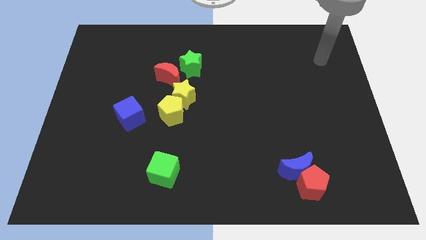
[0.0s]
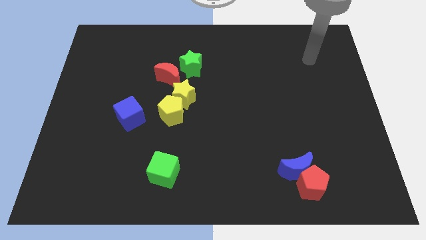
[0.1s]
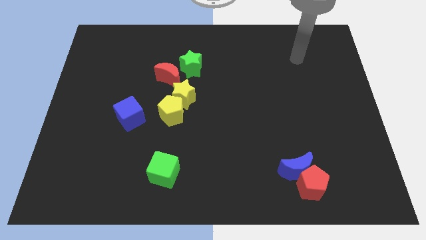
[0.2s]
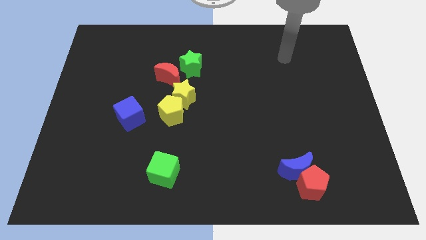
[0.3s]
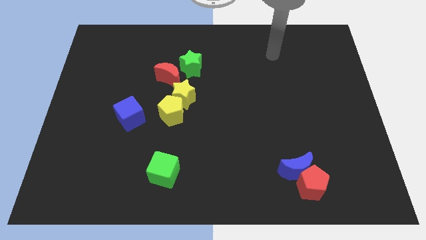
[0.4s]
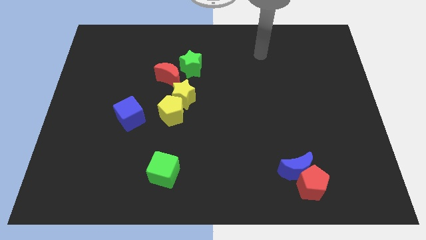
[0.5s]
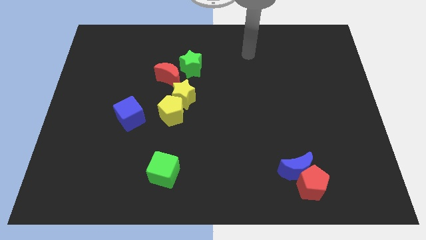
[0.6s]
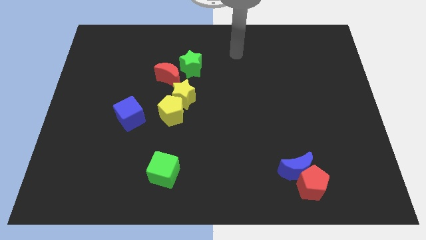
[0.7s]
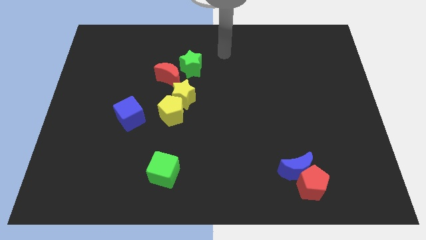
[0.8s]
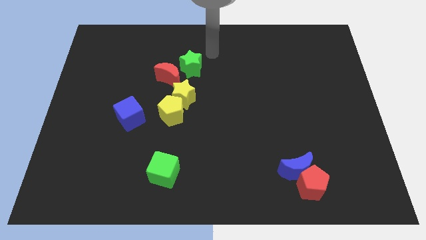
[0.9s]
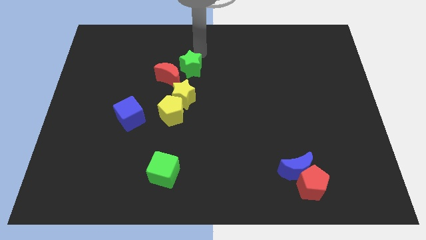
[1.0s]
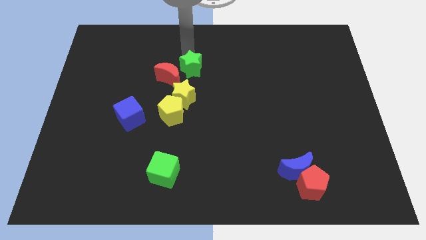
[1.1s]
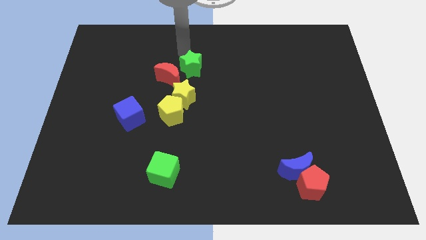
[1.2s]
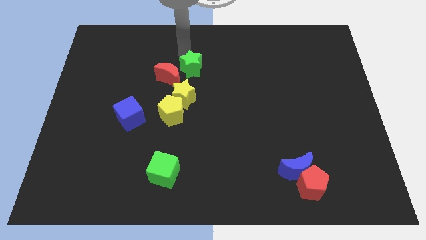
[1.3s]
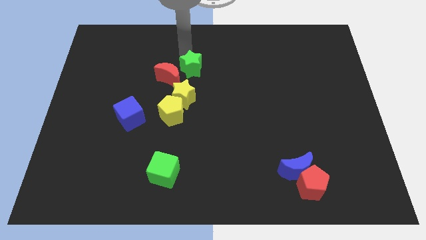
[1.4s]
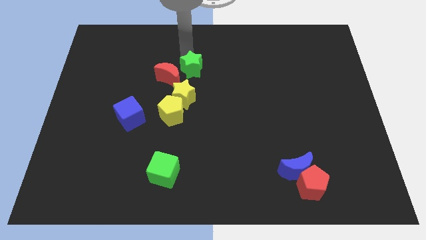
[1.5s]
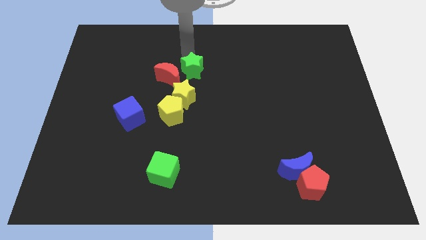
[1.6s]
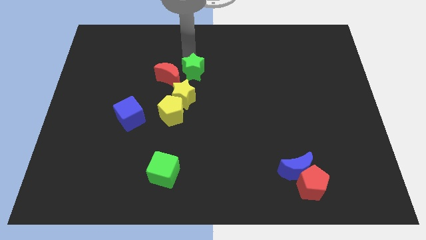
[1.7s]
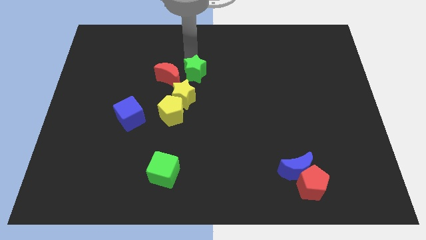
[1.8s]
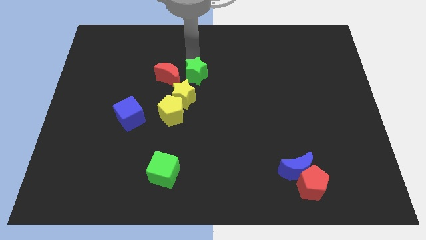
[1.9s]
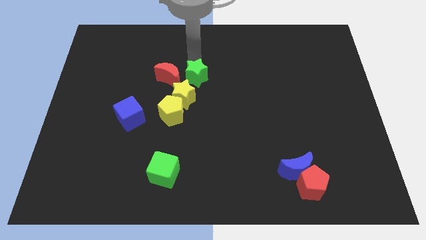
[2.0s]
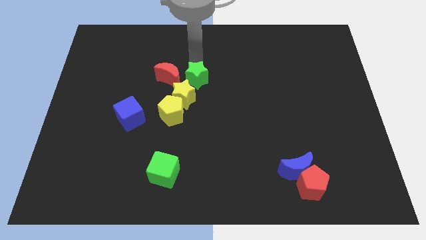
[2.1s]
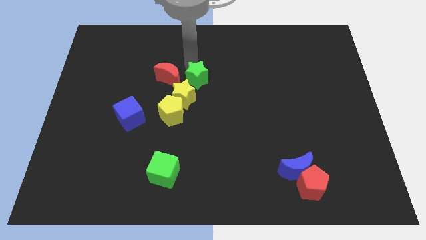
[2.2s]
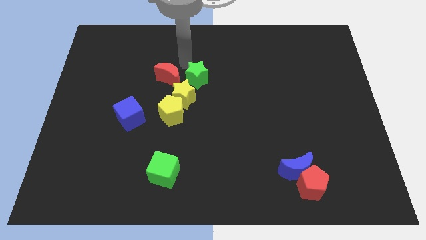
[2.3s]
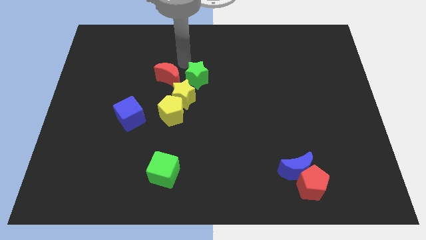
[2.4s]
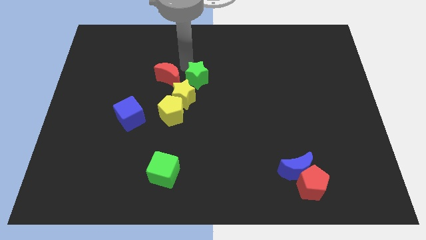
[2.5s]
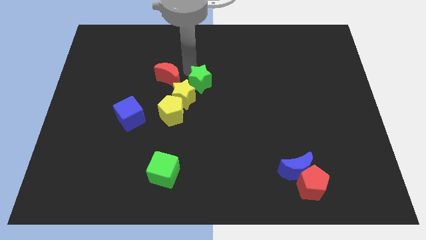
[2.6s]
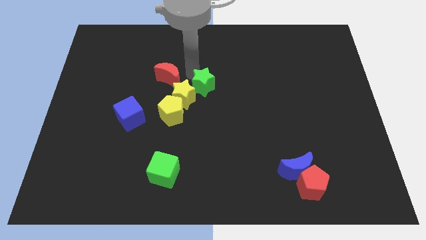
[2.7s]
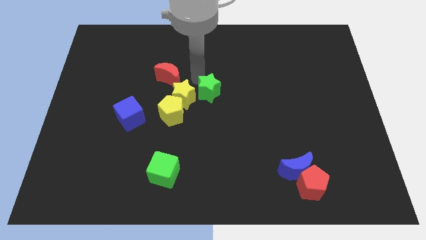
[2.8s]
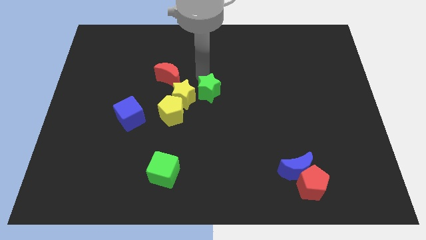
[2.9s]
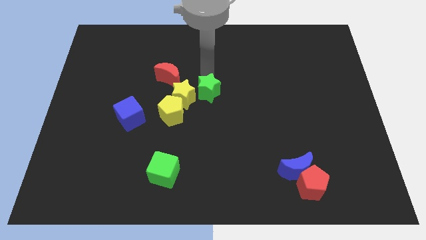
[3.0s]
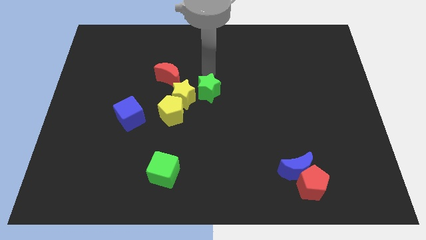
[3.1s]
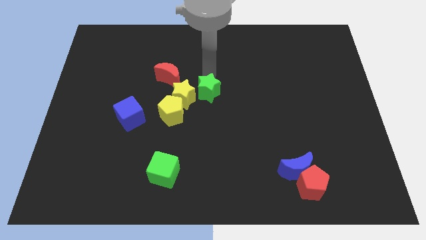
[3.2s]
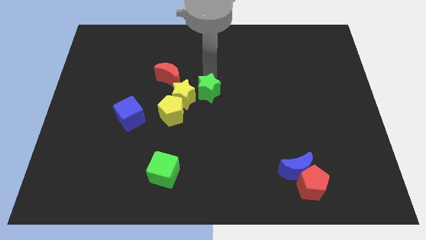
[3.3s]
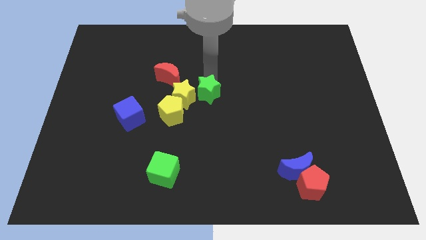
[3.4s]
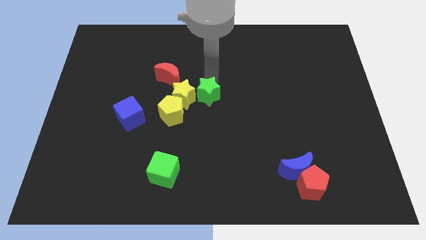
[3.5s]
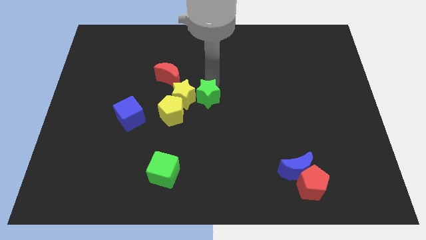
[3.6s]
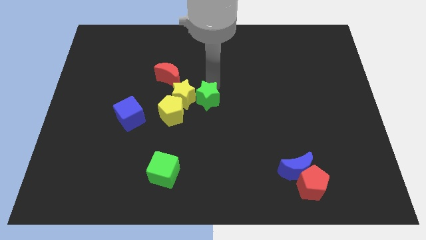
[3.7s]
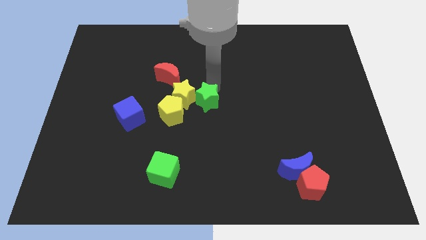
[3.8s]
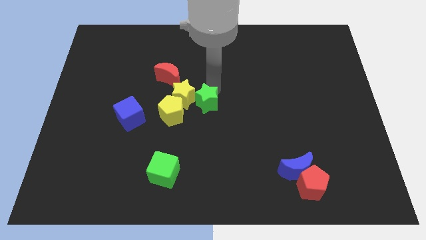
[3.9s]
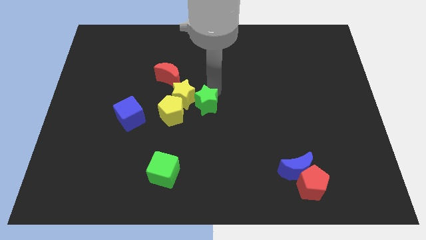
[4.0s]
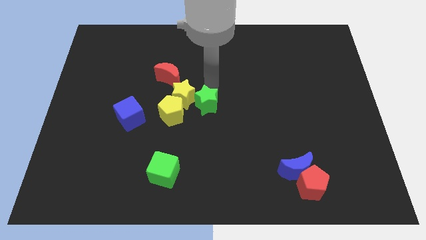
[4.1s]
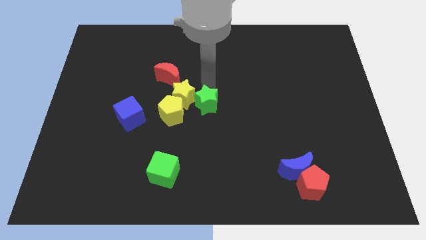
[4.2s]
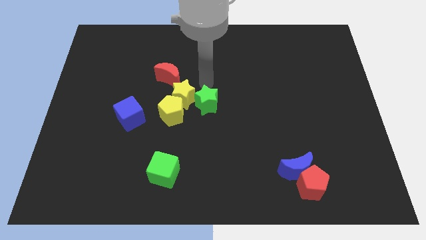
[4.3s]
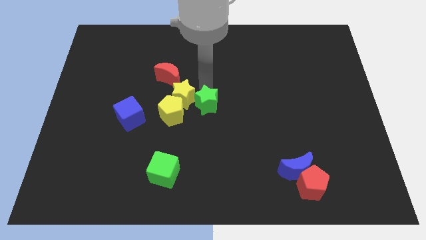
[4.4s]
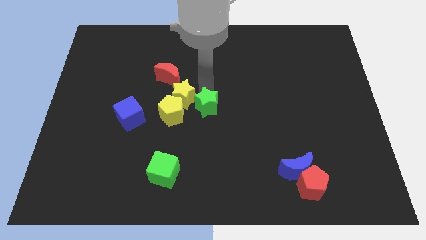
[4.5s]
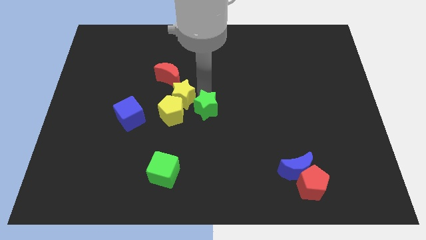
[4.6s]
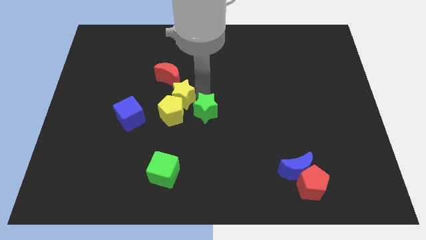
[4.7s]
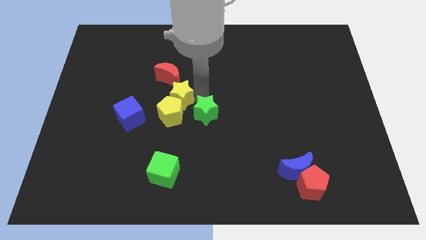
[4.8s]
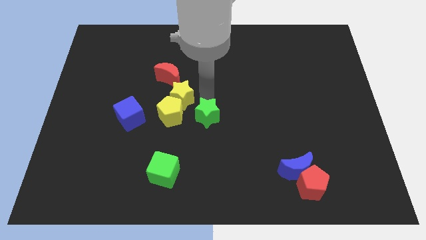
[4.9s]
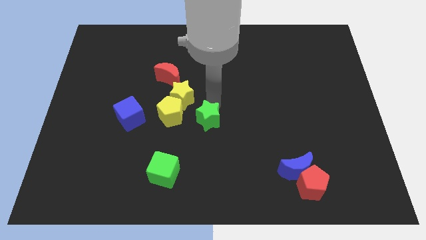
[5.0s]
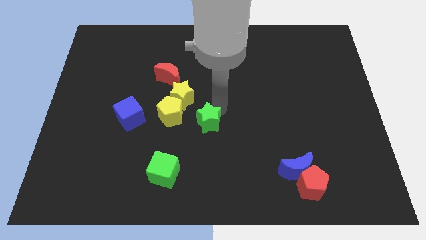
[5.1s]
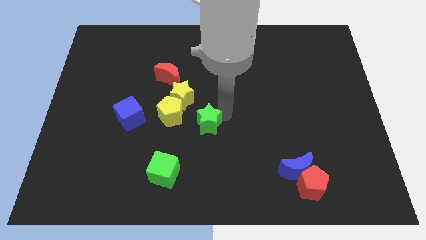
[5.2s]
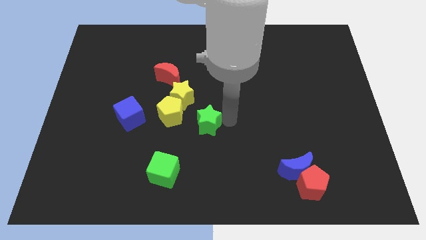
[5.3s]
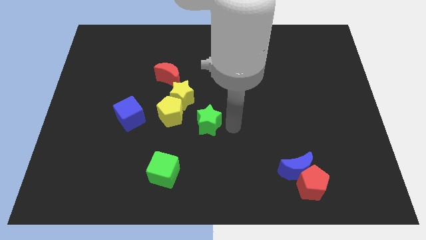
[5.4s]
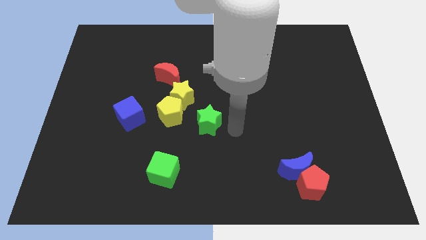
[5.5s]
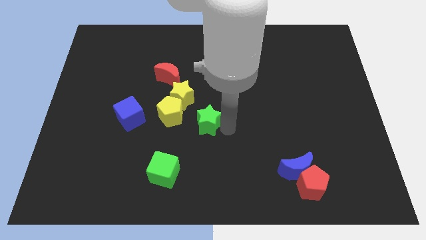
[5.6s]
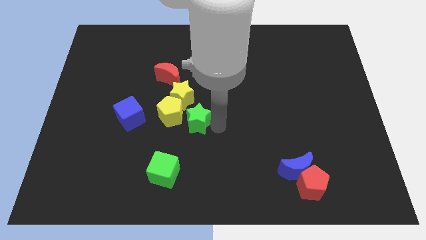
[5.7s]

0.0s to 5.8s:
move the green star next to the yellow pentagon

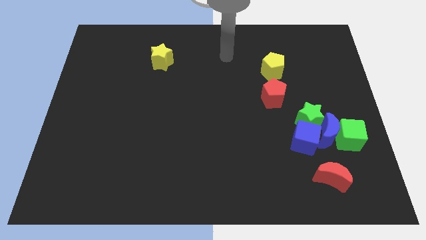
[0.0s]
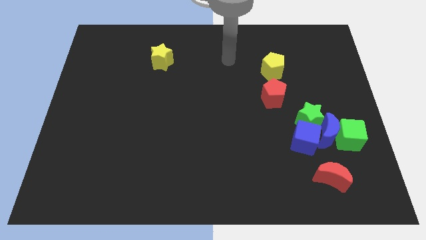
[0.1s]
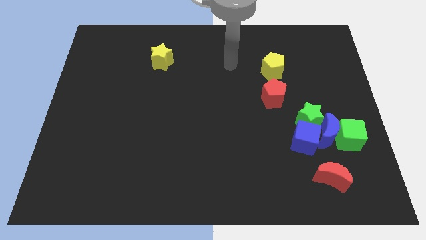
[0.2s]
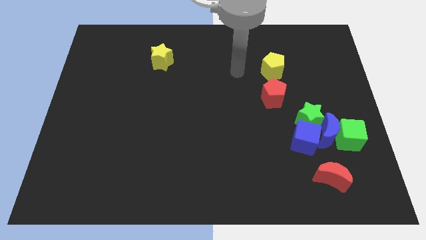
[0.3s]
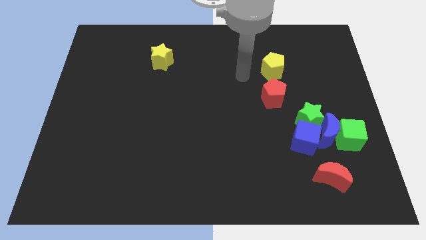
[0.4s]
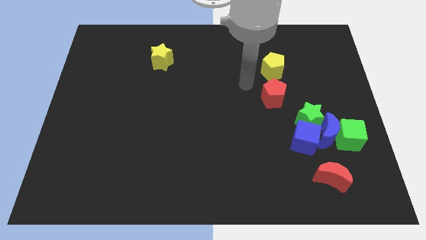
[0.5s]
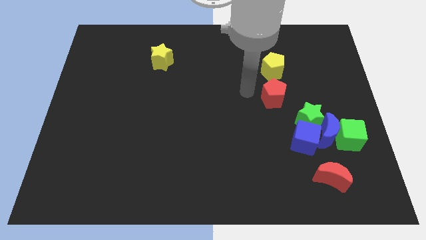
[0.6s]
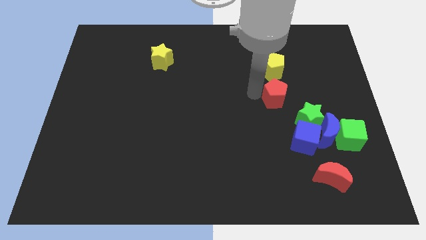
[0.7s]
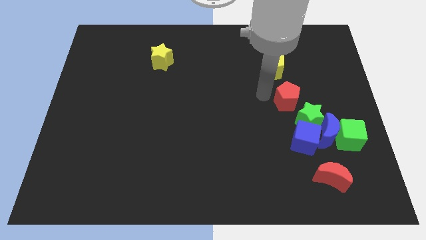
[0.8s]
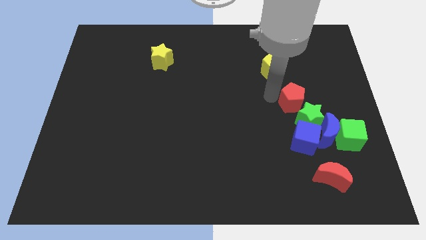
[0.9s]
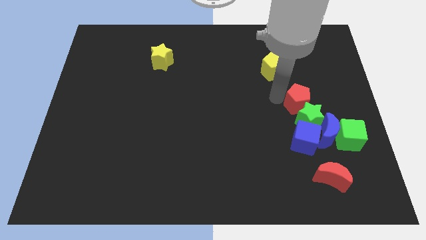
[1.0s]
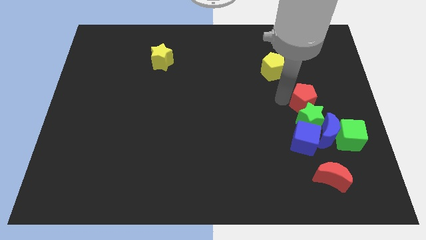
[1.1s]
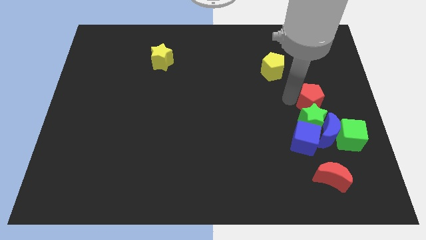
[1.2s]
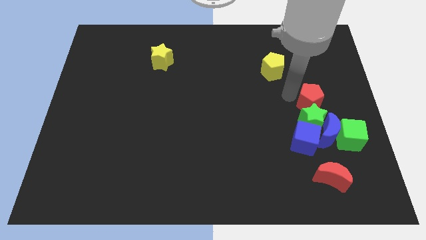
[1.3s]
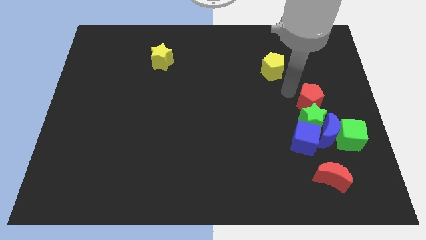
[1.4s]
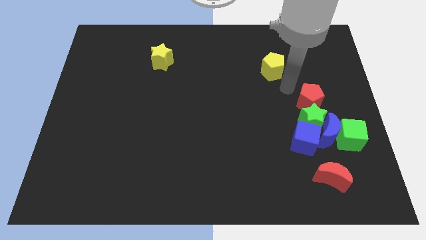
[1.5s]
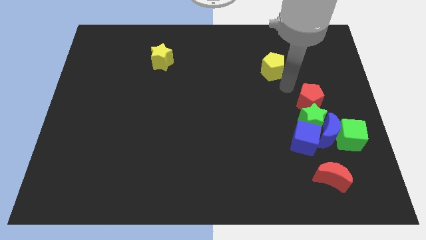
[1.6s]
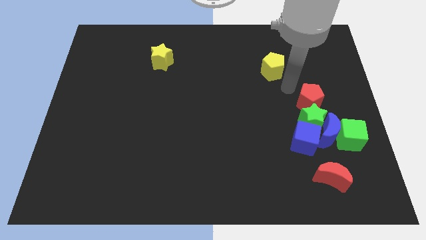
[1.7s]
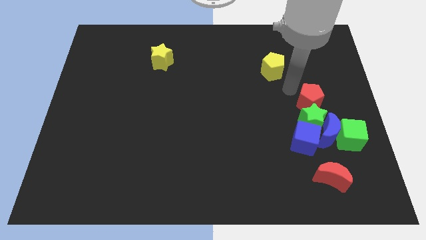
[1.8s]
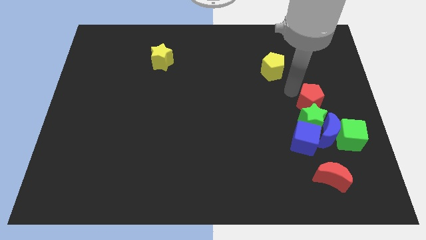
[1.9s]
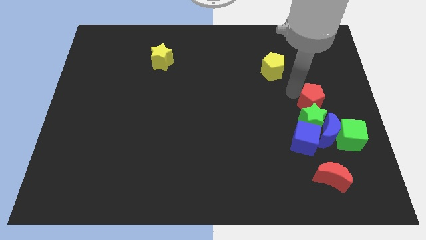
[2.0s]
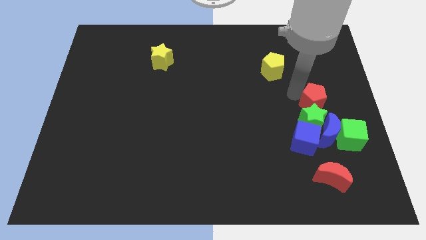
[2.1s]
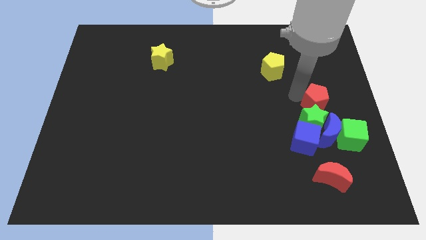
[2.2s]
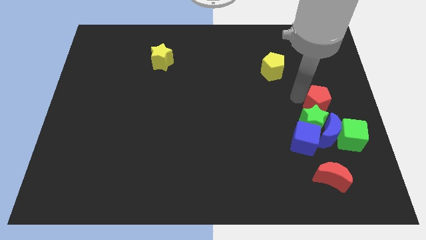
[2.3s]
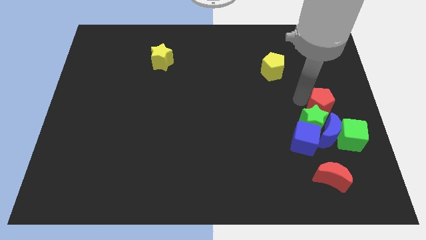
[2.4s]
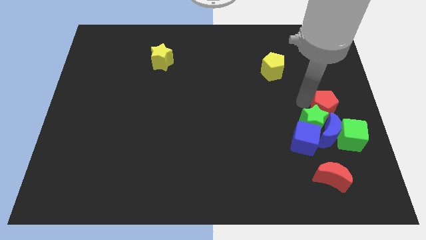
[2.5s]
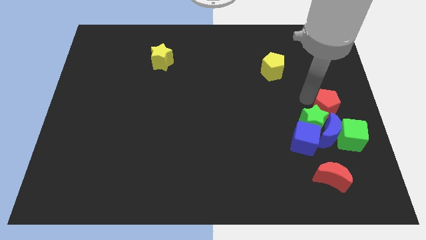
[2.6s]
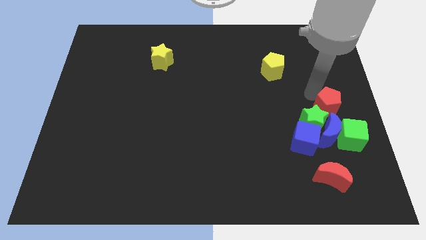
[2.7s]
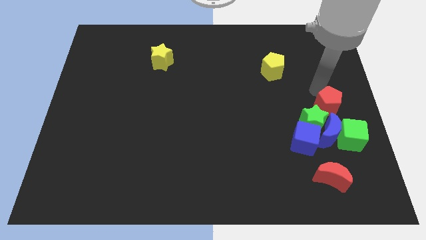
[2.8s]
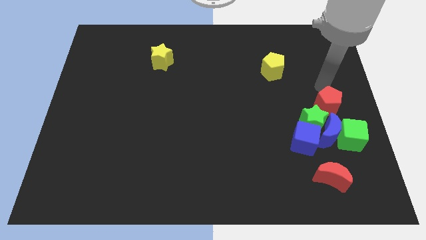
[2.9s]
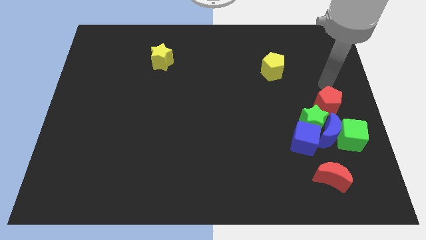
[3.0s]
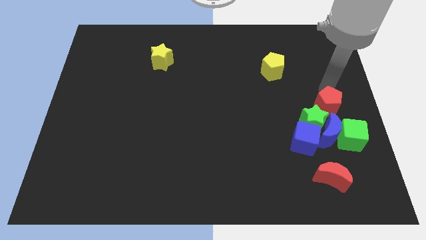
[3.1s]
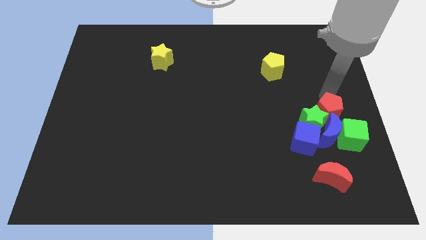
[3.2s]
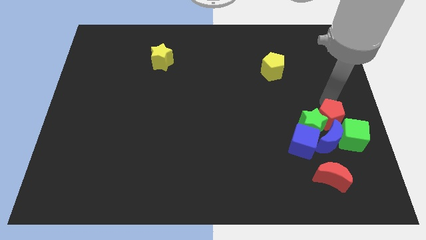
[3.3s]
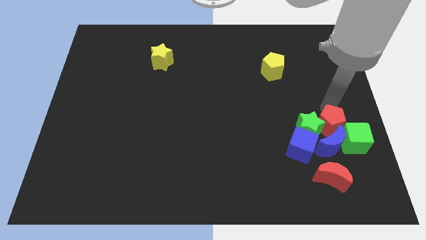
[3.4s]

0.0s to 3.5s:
move the red pentagon towards the blue moon
